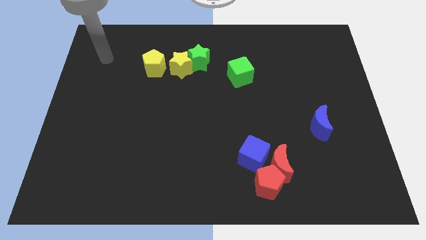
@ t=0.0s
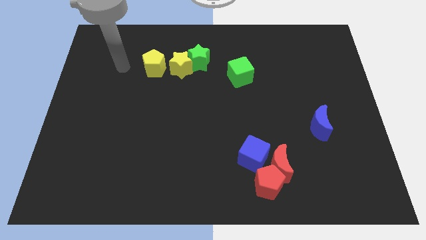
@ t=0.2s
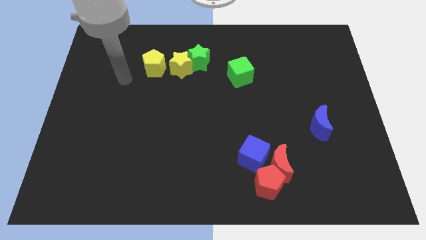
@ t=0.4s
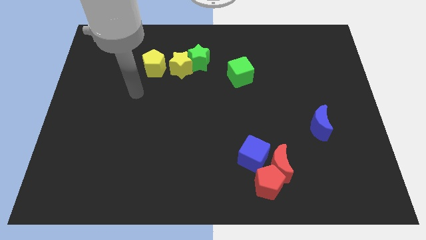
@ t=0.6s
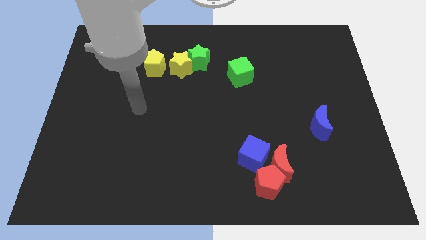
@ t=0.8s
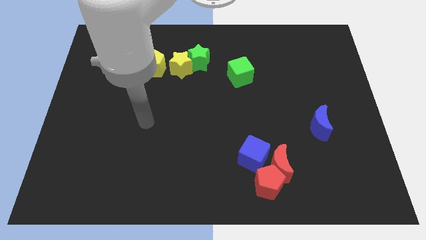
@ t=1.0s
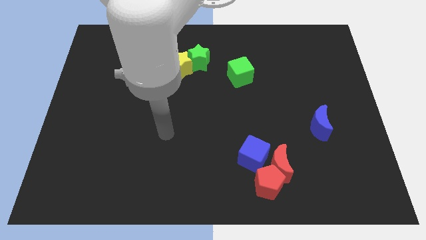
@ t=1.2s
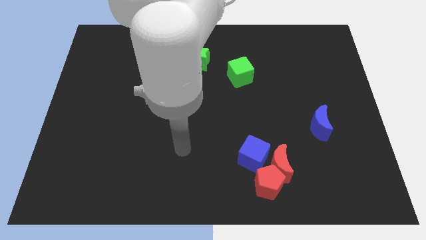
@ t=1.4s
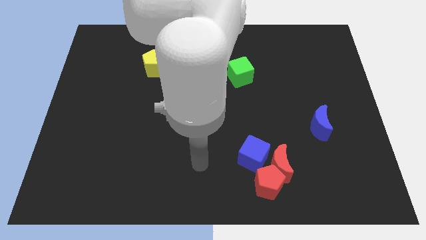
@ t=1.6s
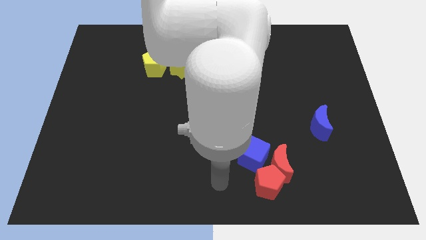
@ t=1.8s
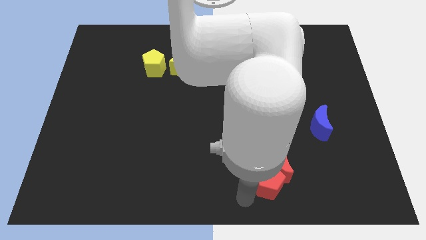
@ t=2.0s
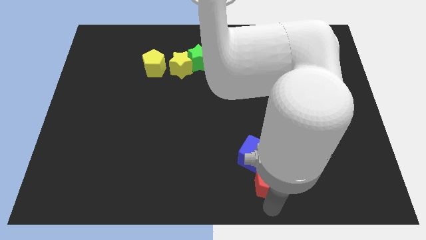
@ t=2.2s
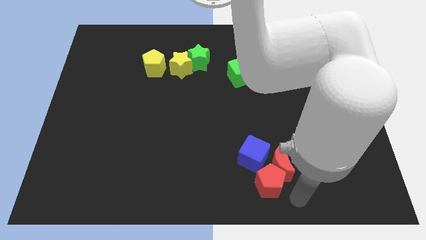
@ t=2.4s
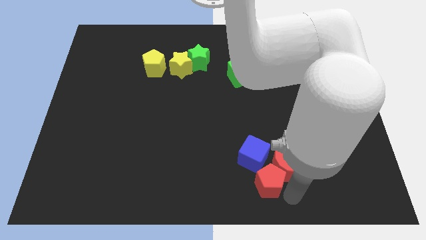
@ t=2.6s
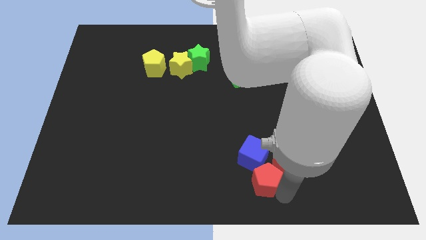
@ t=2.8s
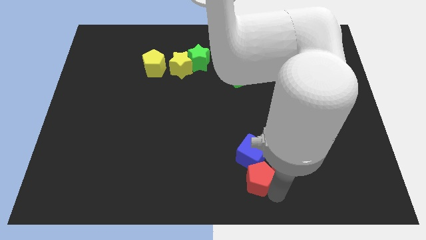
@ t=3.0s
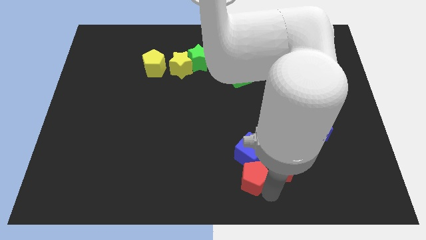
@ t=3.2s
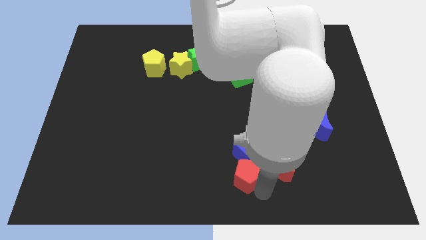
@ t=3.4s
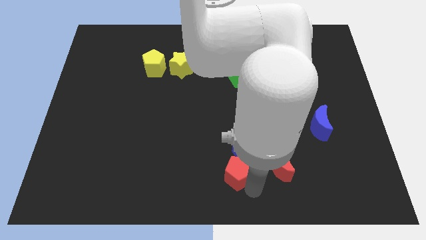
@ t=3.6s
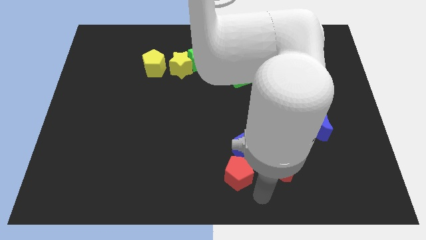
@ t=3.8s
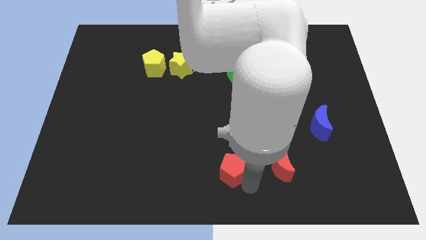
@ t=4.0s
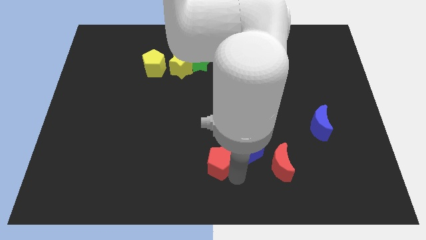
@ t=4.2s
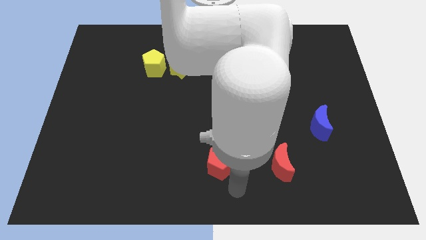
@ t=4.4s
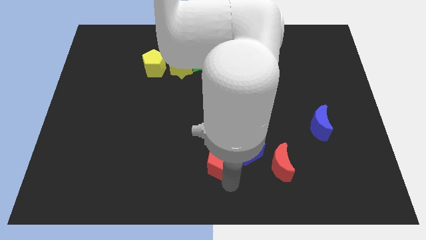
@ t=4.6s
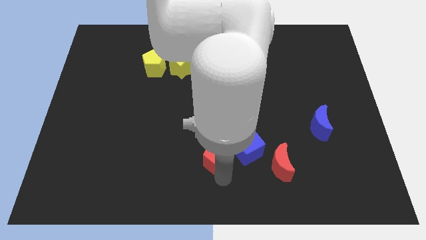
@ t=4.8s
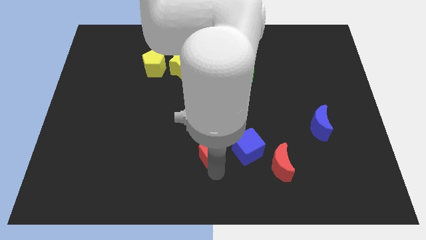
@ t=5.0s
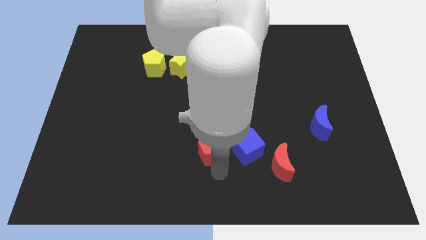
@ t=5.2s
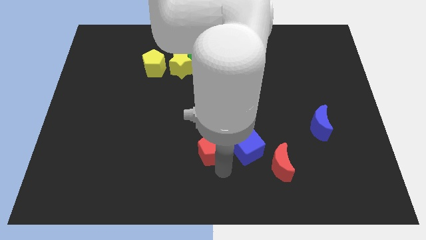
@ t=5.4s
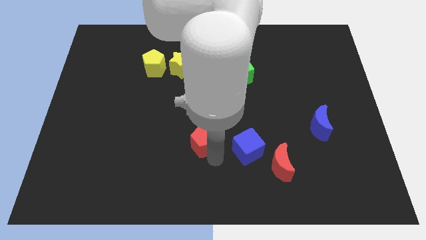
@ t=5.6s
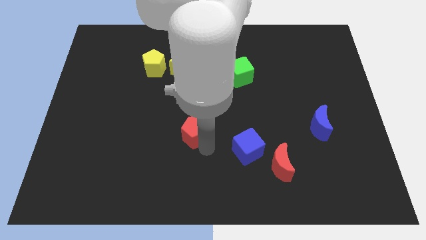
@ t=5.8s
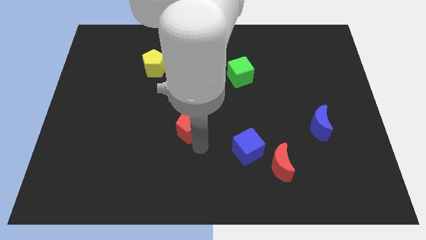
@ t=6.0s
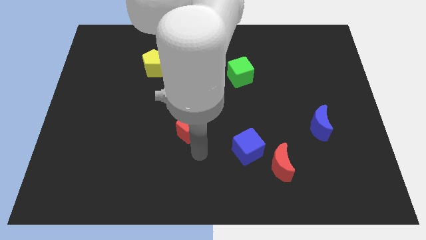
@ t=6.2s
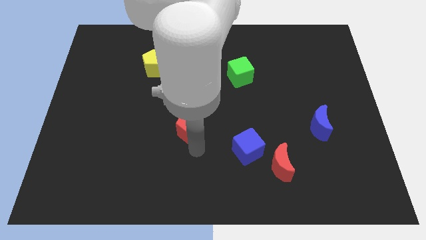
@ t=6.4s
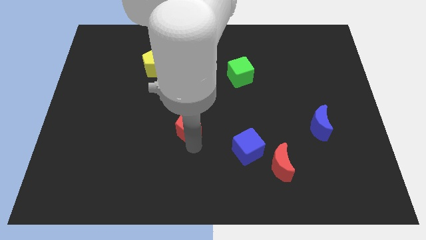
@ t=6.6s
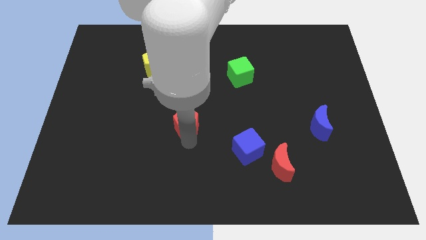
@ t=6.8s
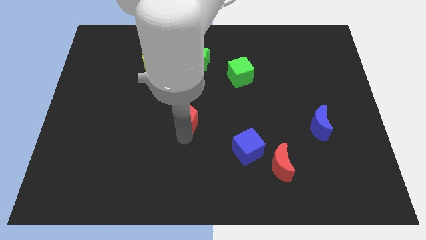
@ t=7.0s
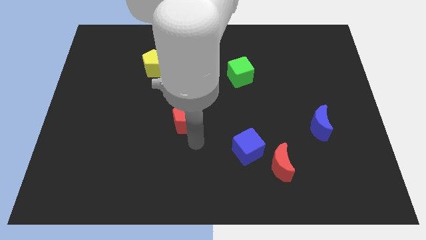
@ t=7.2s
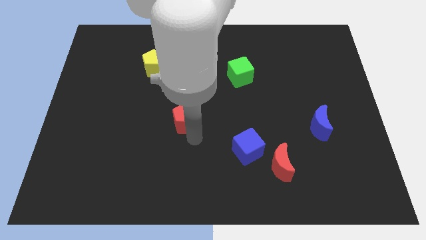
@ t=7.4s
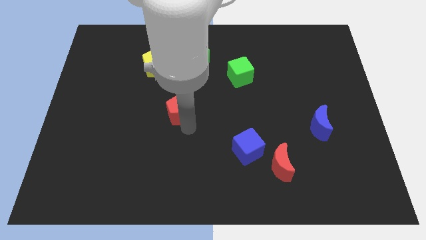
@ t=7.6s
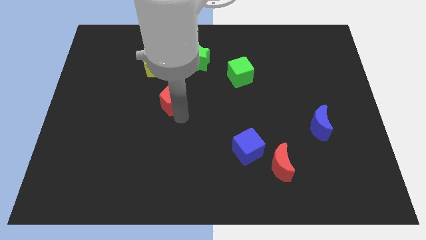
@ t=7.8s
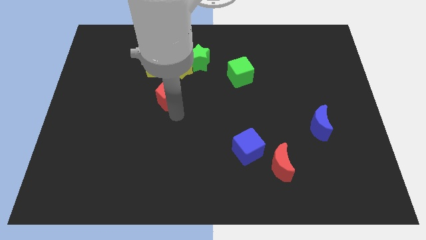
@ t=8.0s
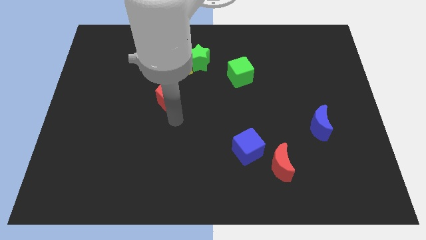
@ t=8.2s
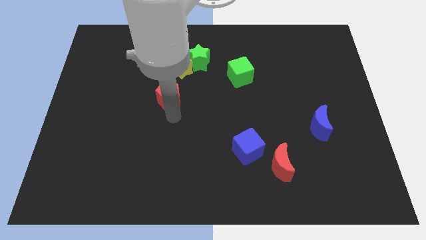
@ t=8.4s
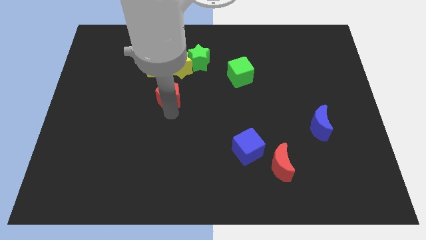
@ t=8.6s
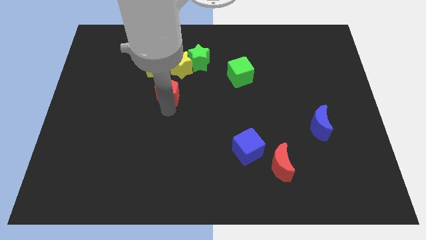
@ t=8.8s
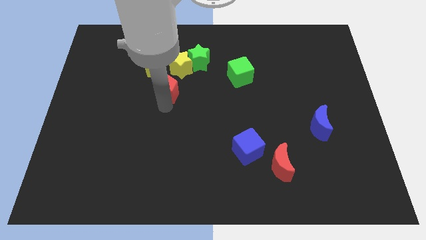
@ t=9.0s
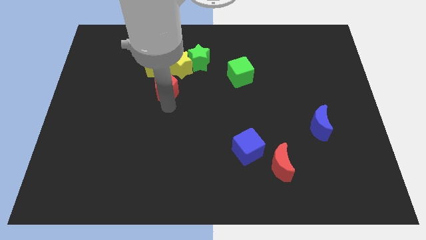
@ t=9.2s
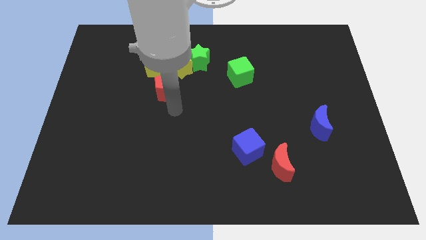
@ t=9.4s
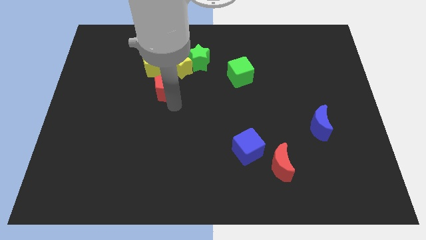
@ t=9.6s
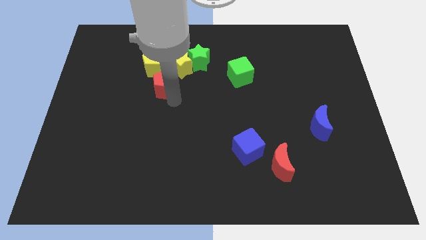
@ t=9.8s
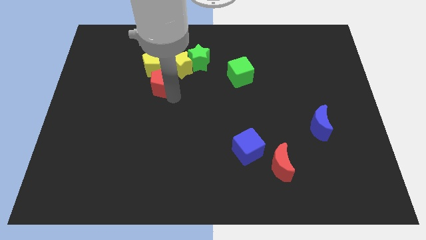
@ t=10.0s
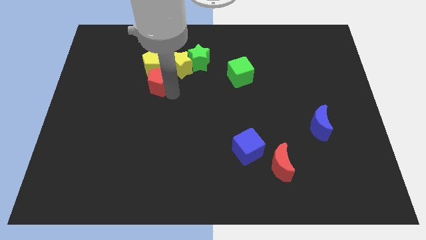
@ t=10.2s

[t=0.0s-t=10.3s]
put the red pentagon close to the yellow pentagon

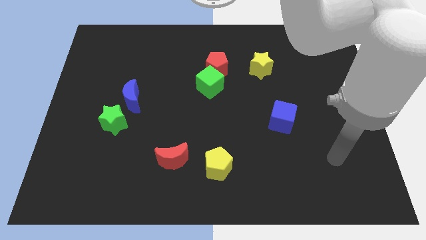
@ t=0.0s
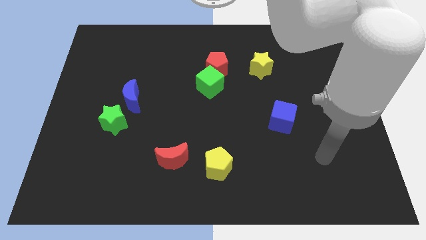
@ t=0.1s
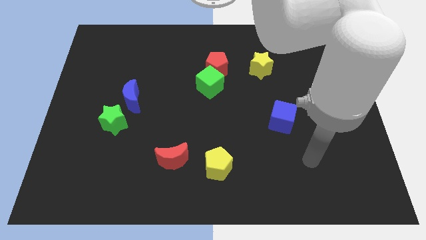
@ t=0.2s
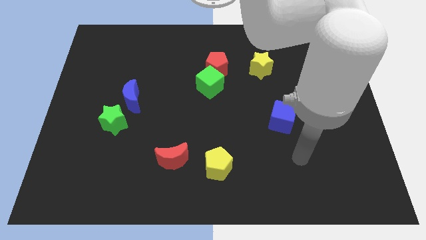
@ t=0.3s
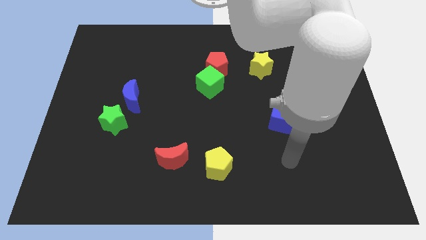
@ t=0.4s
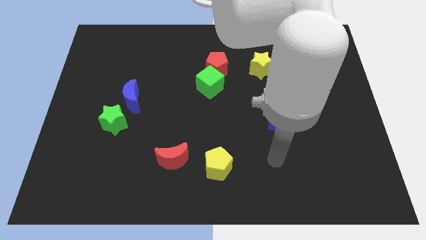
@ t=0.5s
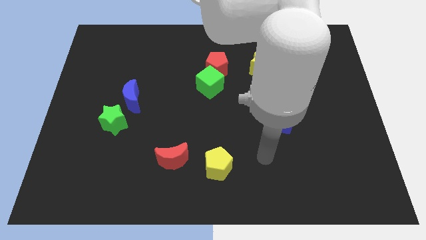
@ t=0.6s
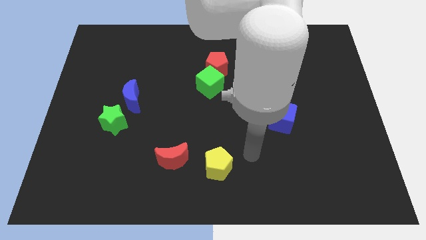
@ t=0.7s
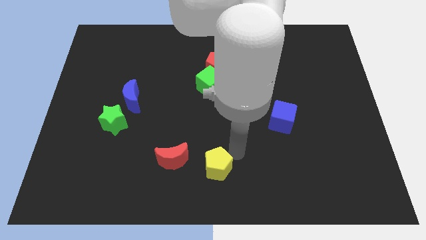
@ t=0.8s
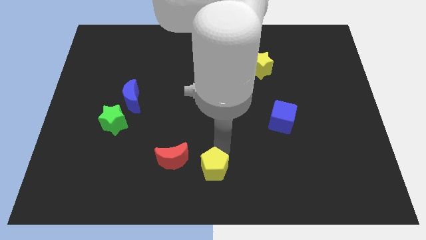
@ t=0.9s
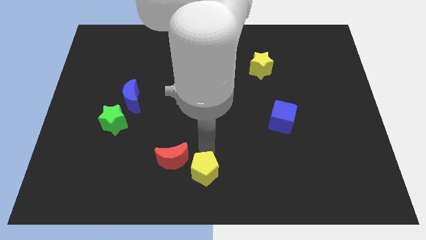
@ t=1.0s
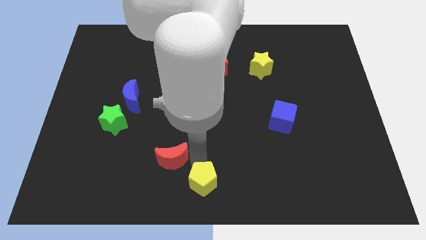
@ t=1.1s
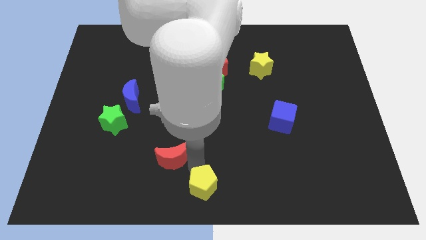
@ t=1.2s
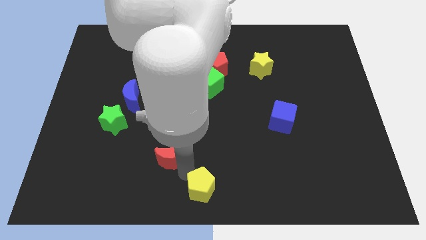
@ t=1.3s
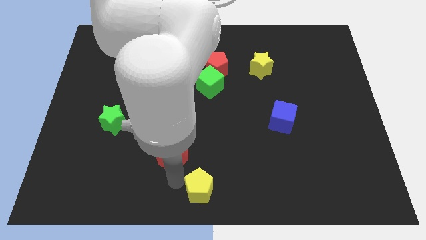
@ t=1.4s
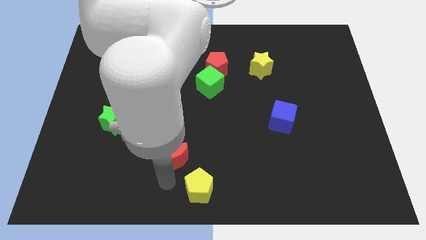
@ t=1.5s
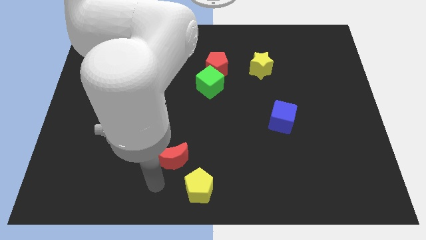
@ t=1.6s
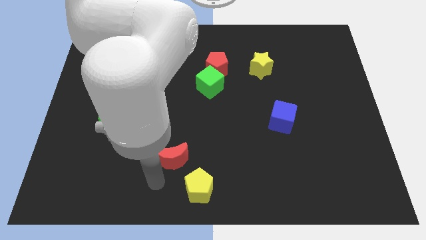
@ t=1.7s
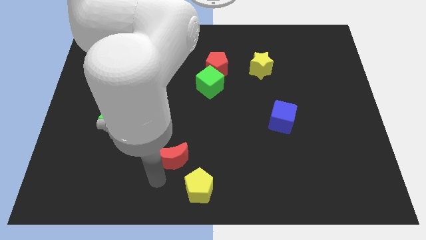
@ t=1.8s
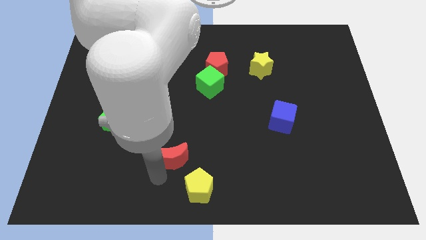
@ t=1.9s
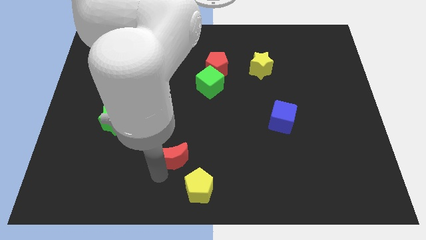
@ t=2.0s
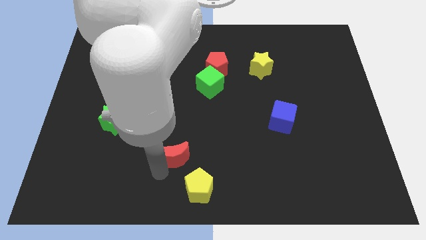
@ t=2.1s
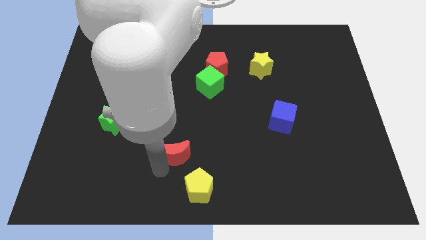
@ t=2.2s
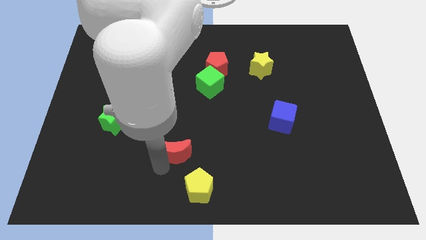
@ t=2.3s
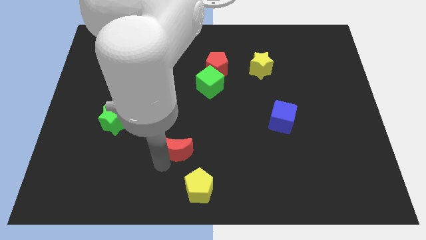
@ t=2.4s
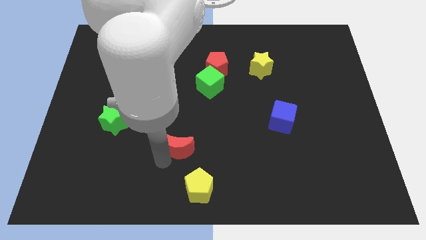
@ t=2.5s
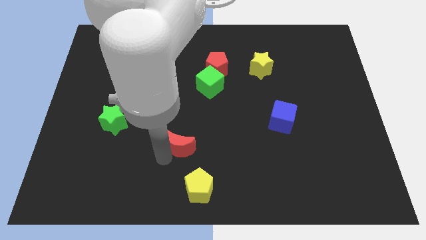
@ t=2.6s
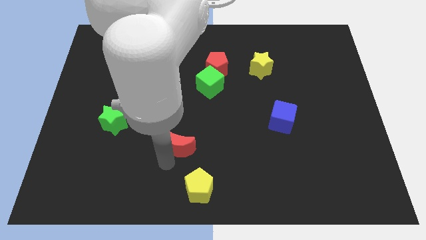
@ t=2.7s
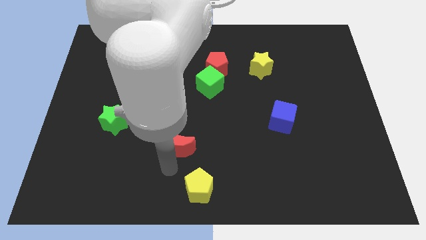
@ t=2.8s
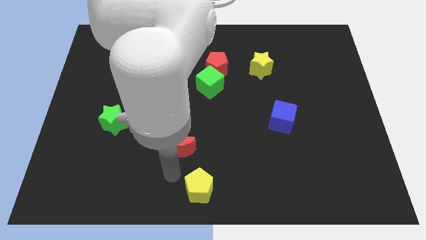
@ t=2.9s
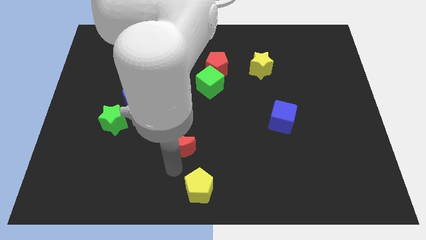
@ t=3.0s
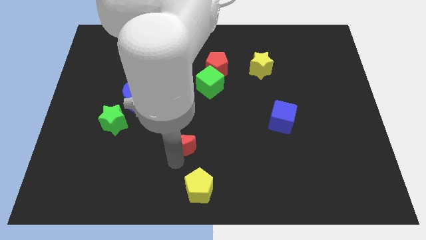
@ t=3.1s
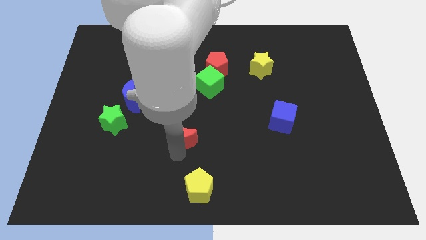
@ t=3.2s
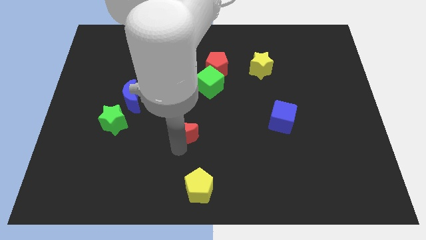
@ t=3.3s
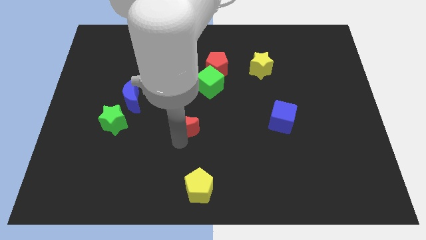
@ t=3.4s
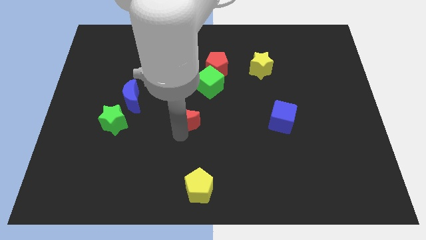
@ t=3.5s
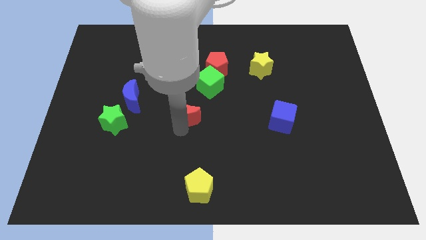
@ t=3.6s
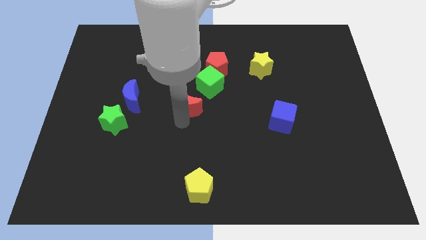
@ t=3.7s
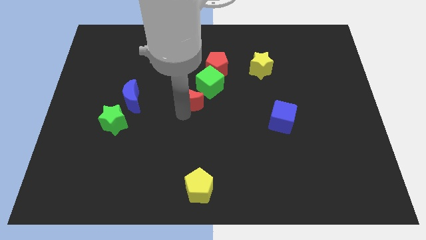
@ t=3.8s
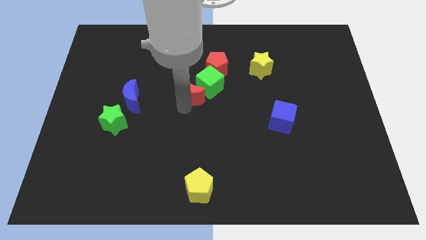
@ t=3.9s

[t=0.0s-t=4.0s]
move the red moon towards the green cube
